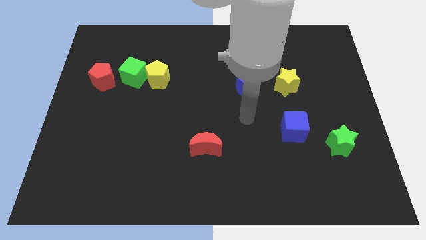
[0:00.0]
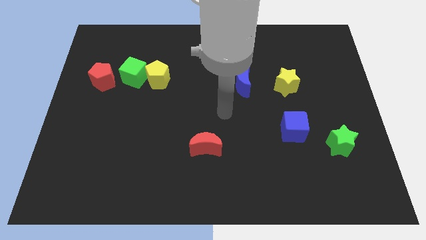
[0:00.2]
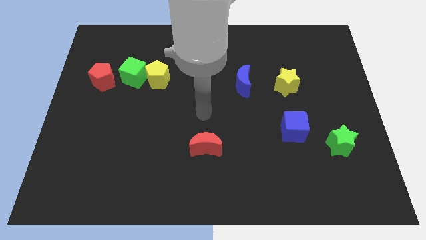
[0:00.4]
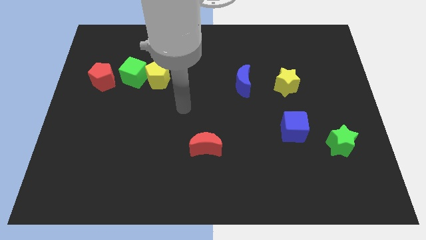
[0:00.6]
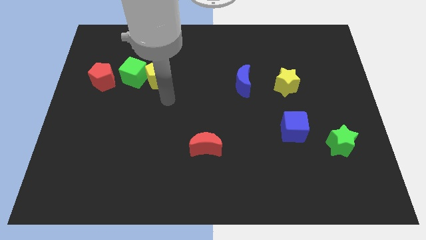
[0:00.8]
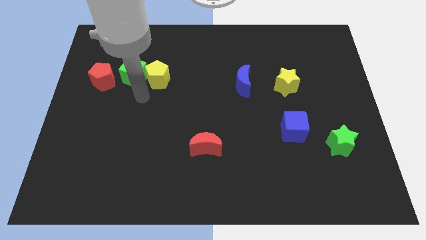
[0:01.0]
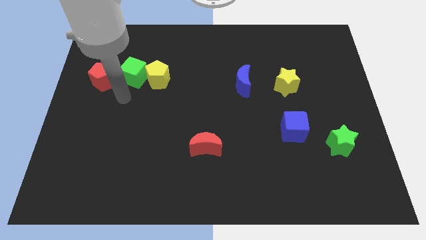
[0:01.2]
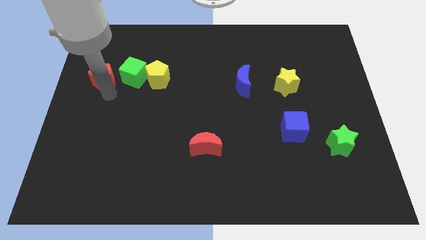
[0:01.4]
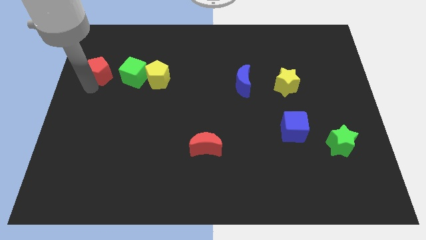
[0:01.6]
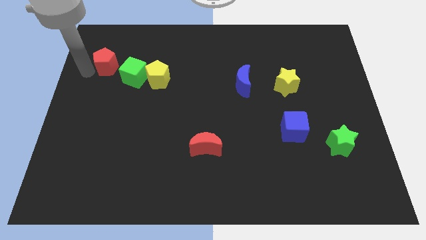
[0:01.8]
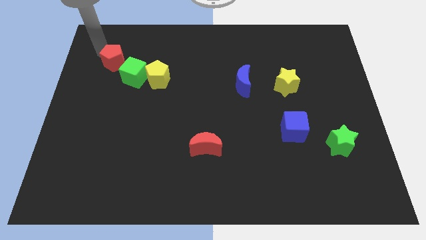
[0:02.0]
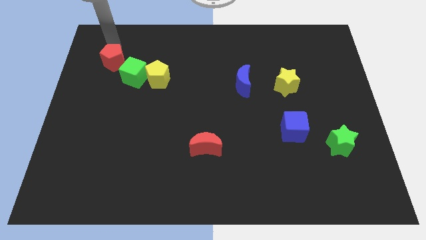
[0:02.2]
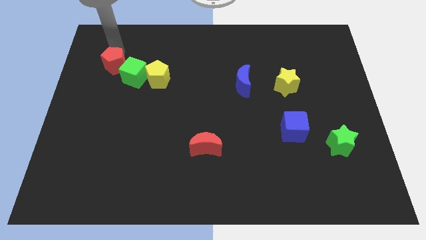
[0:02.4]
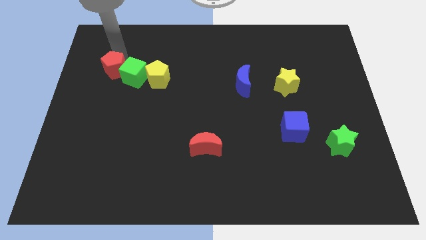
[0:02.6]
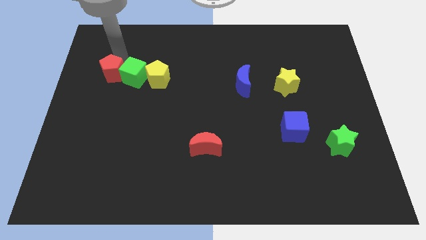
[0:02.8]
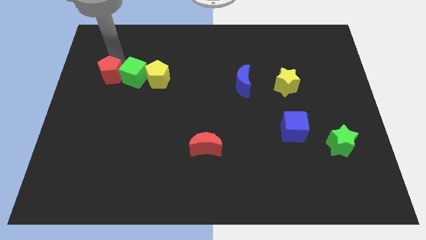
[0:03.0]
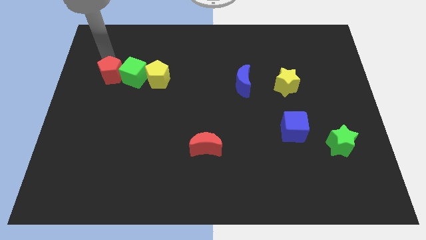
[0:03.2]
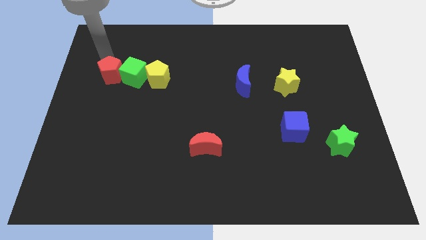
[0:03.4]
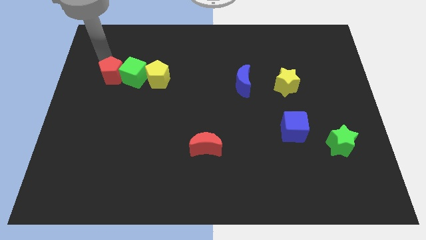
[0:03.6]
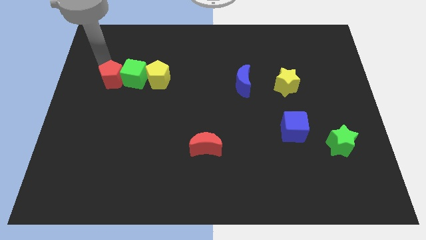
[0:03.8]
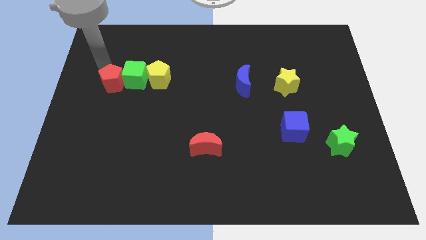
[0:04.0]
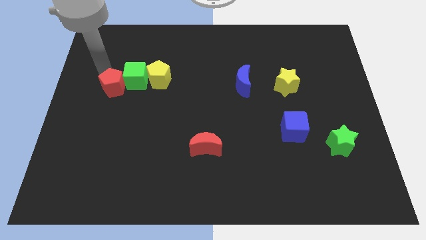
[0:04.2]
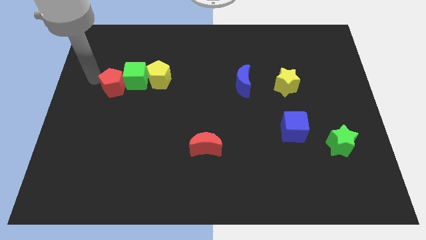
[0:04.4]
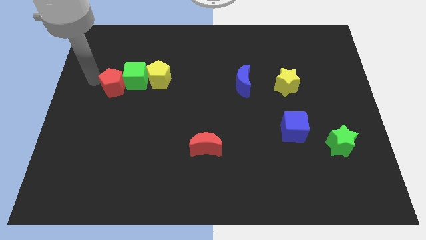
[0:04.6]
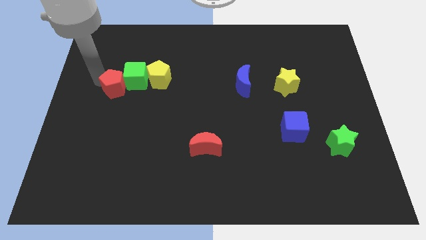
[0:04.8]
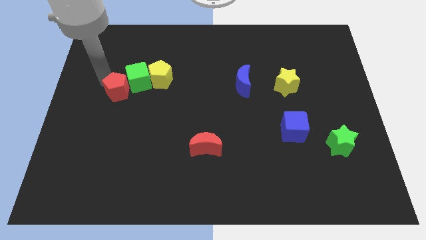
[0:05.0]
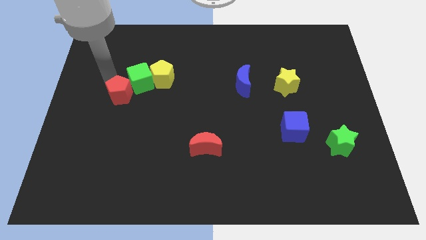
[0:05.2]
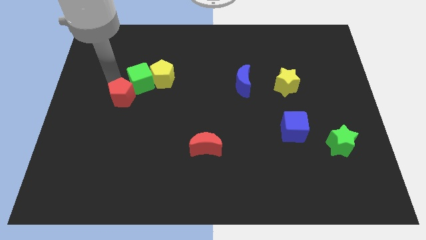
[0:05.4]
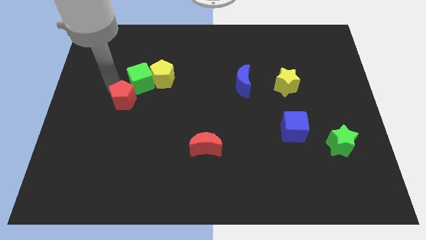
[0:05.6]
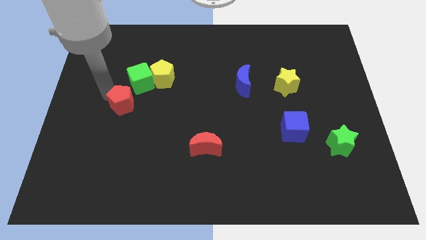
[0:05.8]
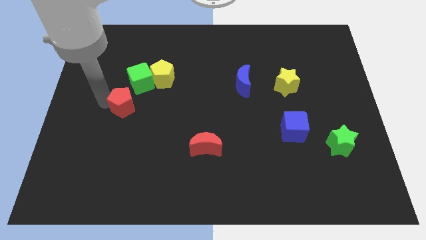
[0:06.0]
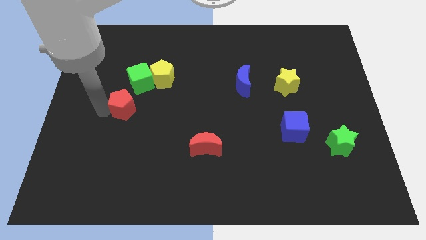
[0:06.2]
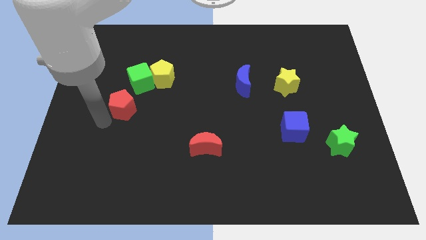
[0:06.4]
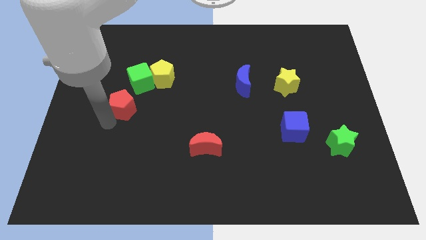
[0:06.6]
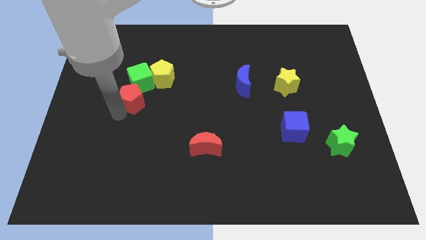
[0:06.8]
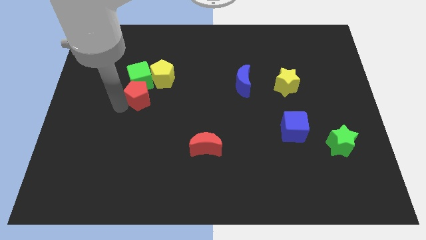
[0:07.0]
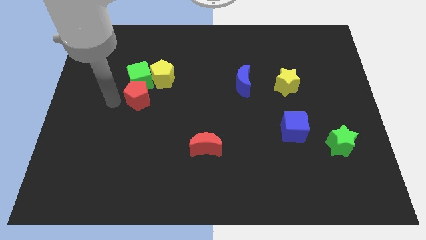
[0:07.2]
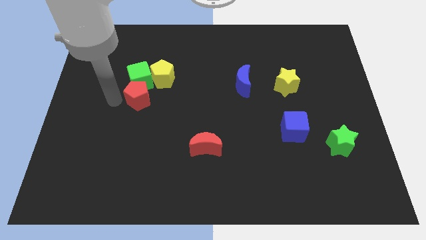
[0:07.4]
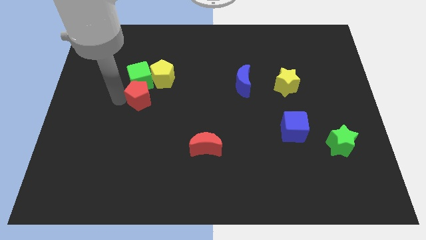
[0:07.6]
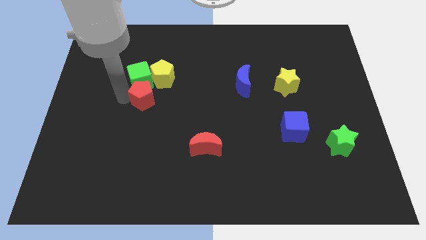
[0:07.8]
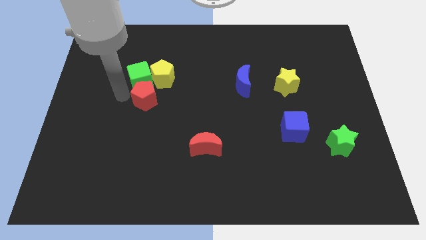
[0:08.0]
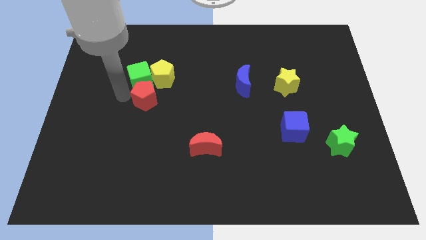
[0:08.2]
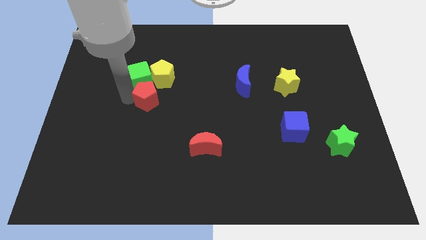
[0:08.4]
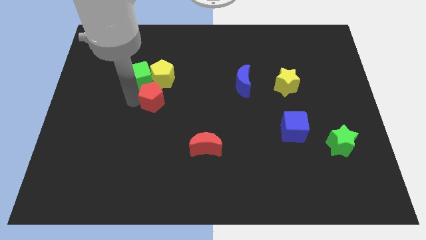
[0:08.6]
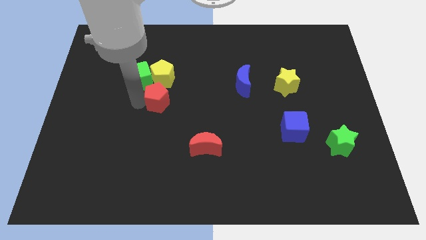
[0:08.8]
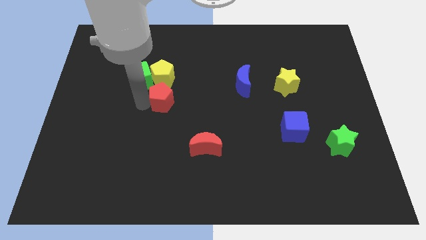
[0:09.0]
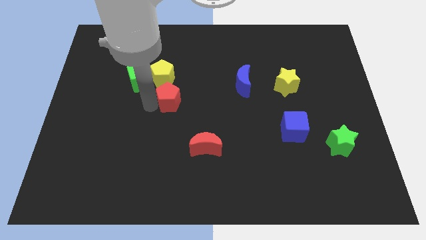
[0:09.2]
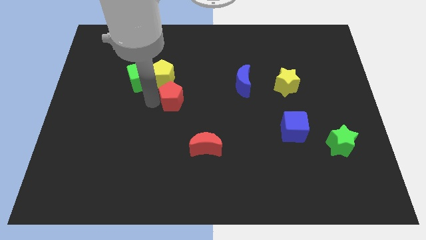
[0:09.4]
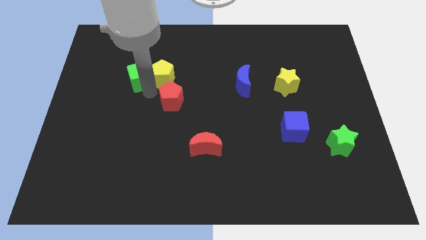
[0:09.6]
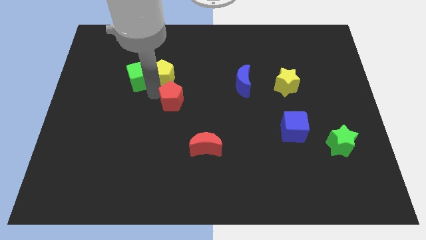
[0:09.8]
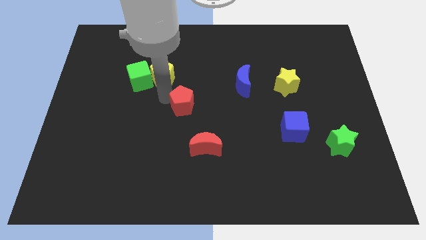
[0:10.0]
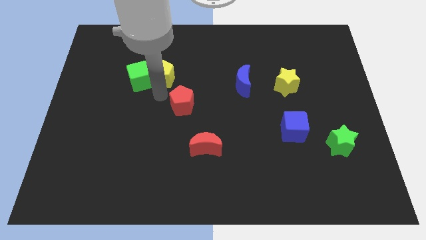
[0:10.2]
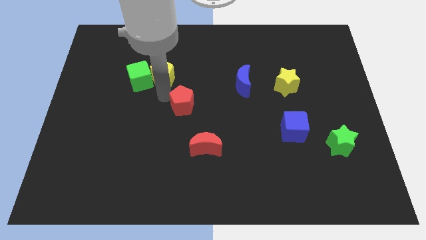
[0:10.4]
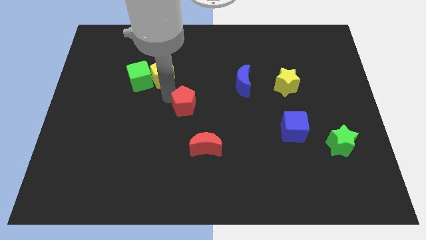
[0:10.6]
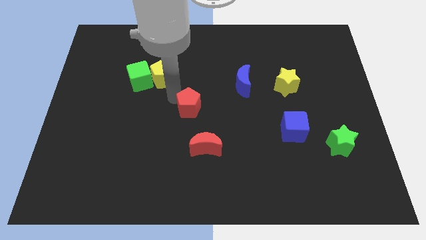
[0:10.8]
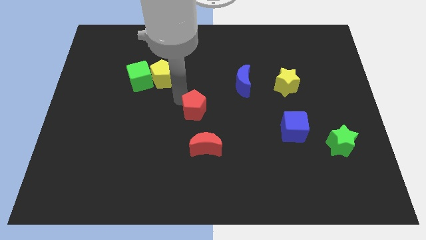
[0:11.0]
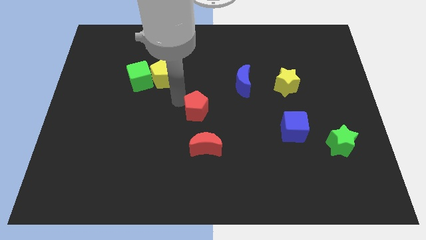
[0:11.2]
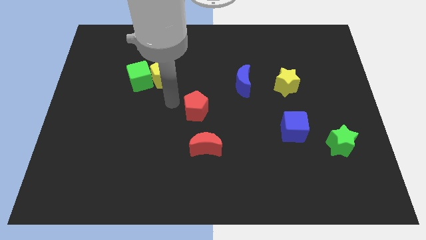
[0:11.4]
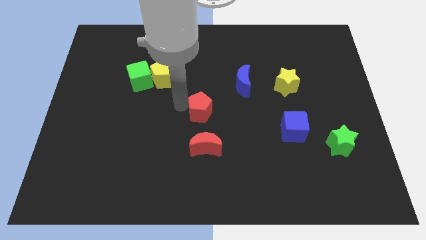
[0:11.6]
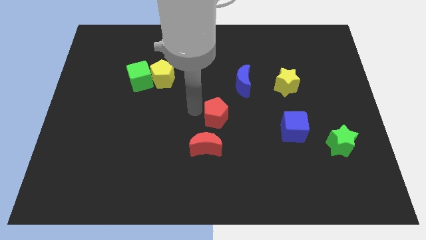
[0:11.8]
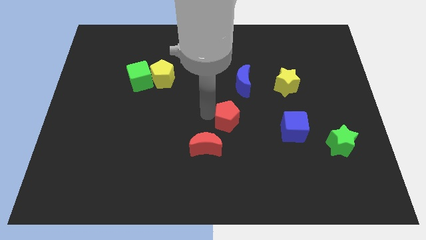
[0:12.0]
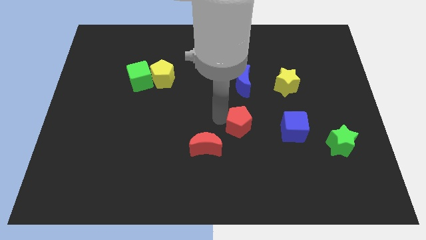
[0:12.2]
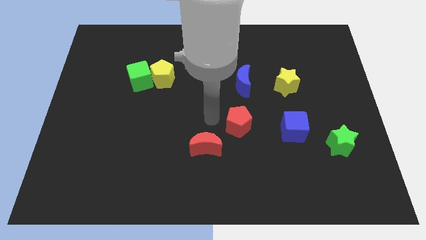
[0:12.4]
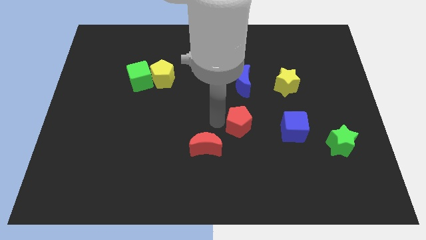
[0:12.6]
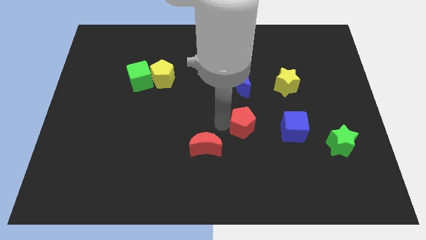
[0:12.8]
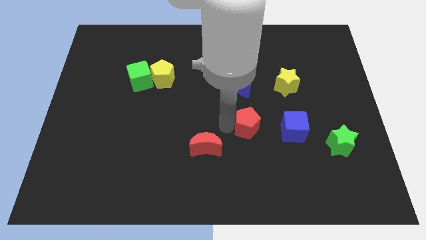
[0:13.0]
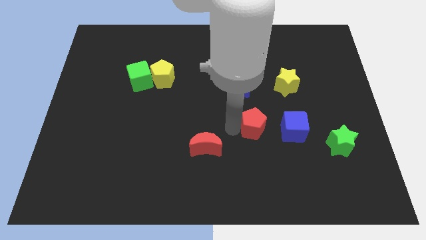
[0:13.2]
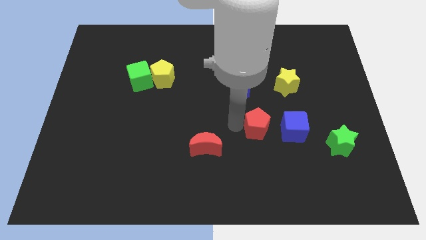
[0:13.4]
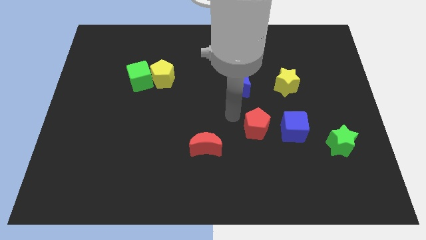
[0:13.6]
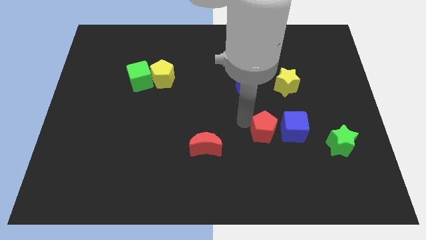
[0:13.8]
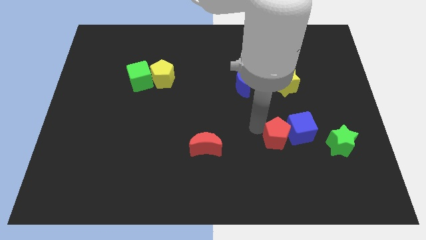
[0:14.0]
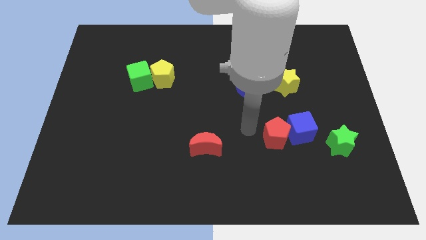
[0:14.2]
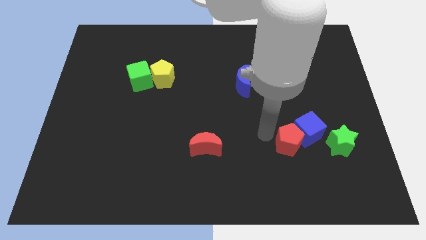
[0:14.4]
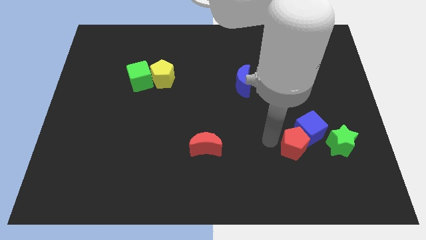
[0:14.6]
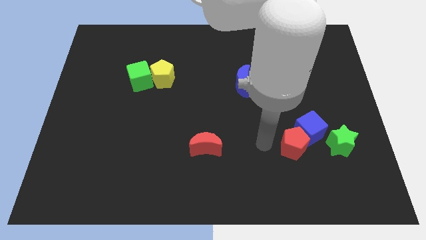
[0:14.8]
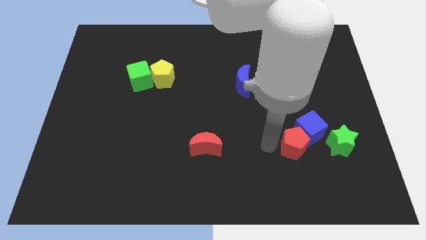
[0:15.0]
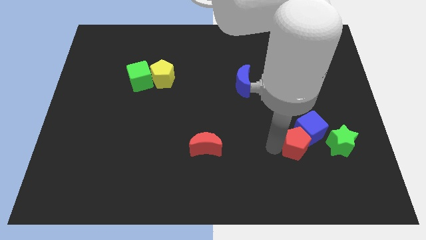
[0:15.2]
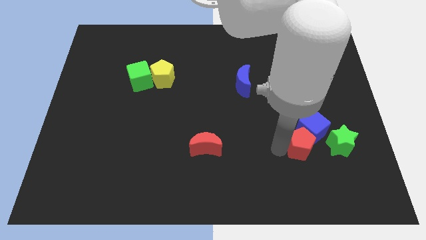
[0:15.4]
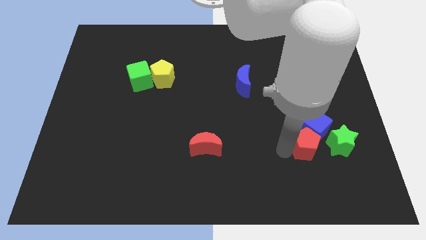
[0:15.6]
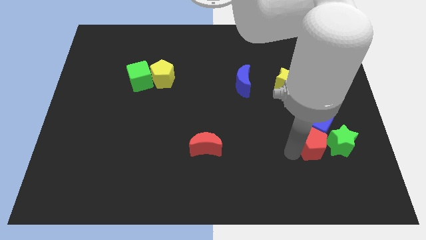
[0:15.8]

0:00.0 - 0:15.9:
push the red pentagon to the green star
